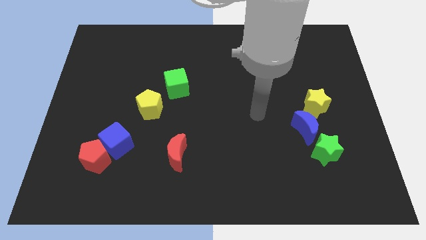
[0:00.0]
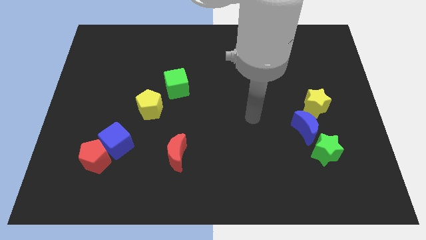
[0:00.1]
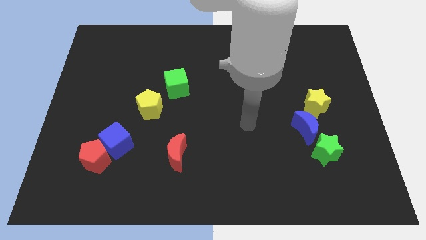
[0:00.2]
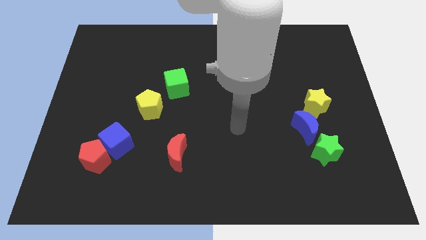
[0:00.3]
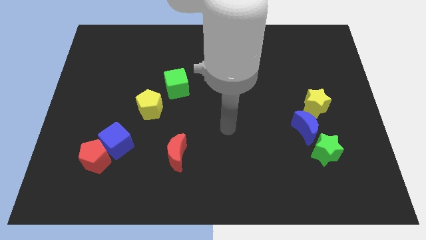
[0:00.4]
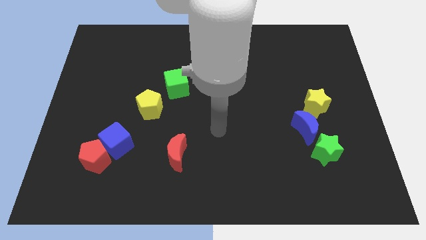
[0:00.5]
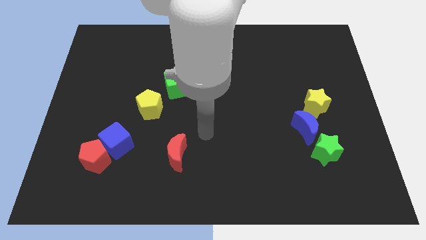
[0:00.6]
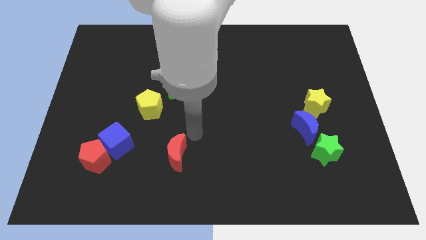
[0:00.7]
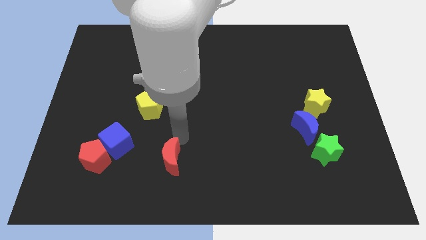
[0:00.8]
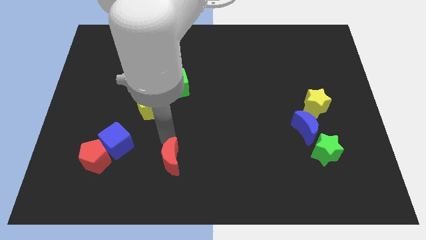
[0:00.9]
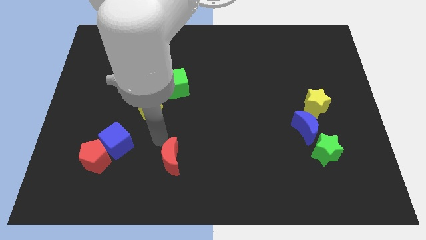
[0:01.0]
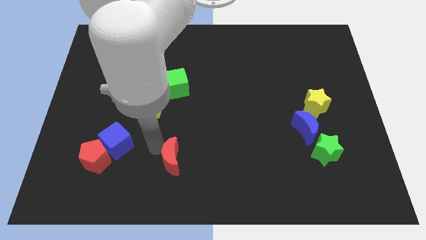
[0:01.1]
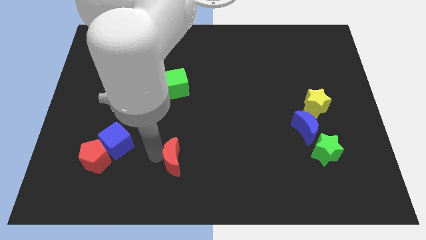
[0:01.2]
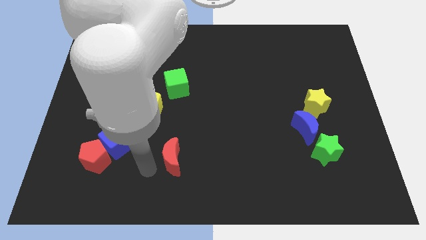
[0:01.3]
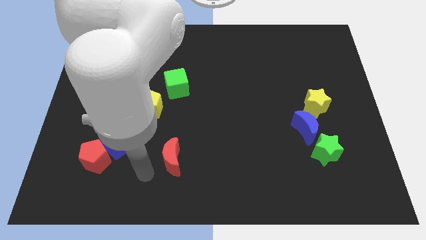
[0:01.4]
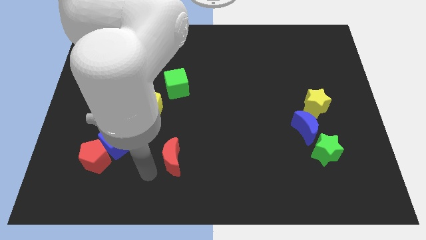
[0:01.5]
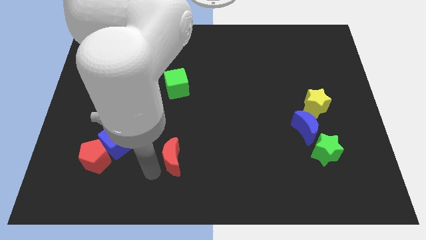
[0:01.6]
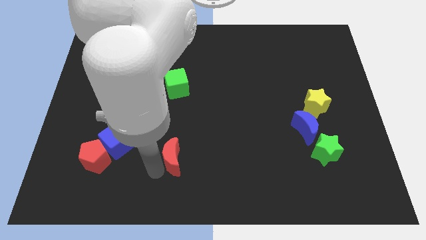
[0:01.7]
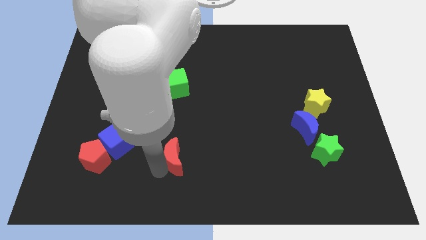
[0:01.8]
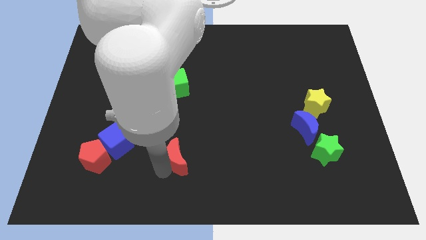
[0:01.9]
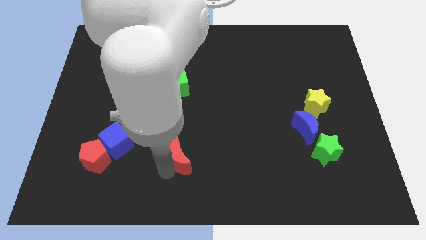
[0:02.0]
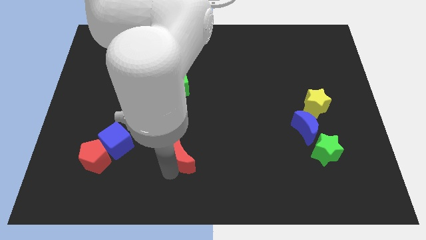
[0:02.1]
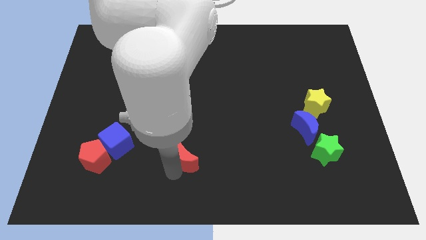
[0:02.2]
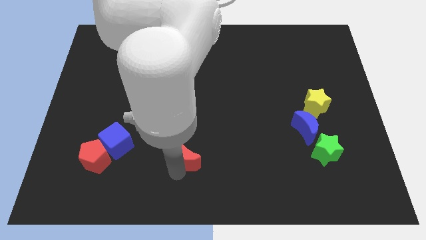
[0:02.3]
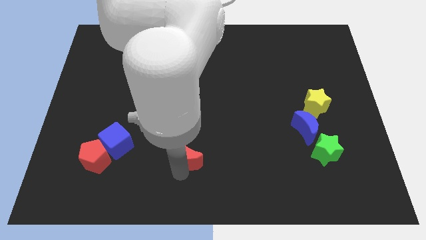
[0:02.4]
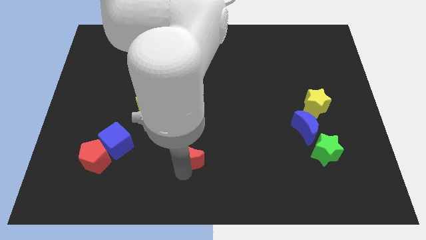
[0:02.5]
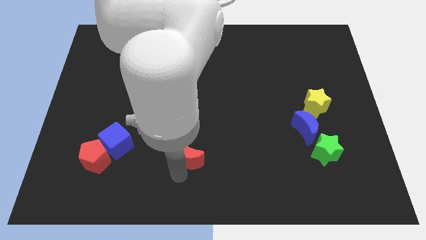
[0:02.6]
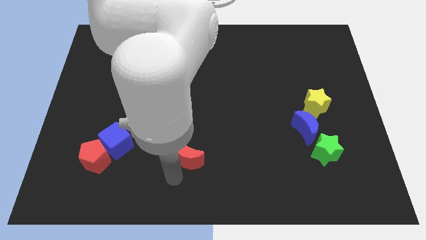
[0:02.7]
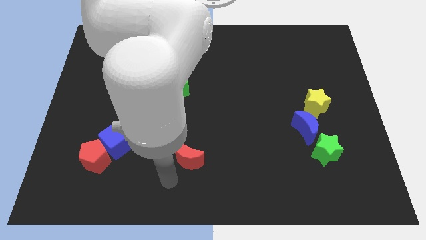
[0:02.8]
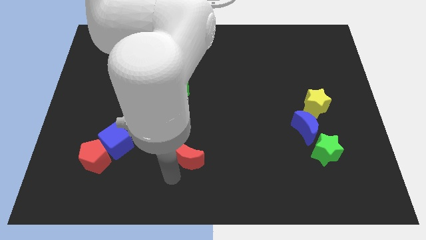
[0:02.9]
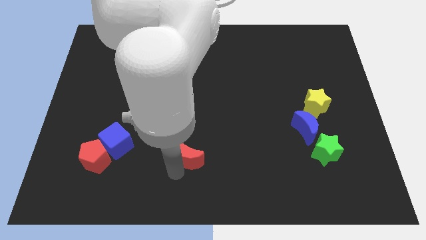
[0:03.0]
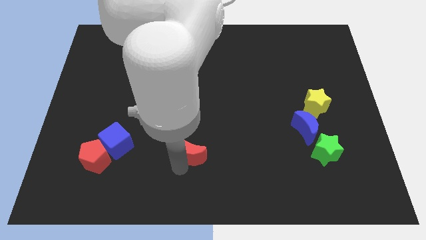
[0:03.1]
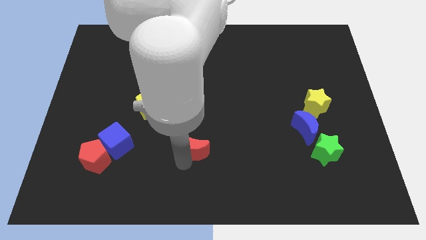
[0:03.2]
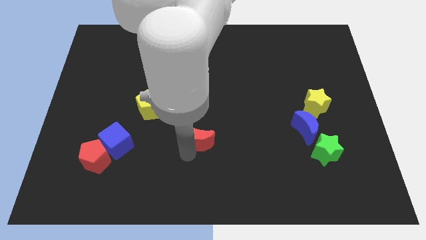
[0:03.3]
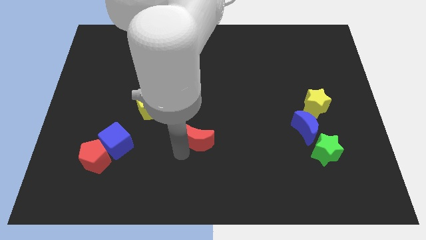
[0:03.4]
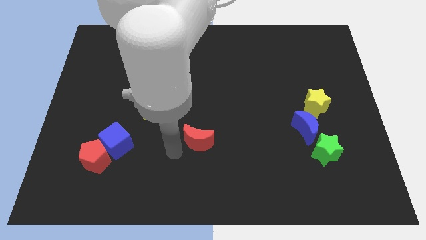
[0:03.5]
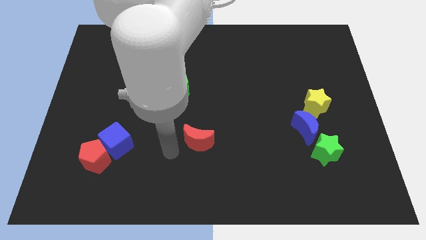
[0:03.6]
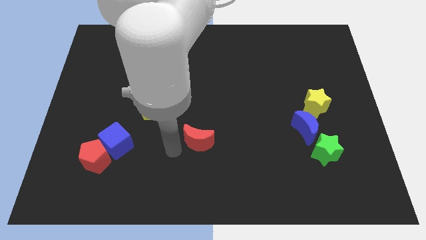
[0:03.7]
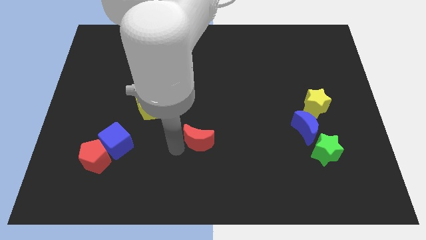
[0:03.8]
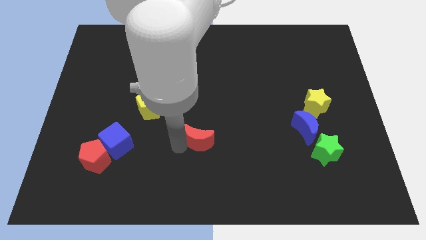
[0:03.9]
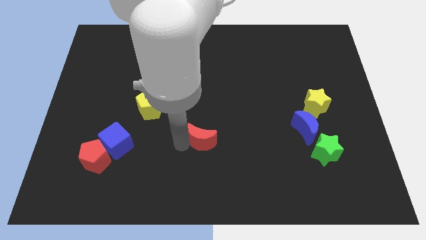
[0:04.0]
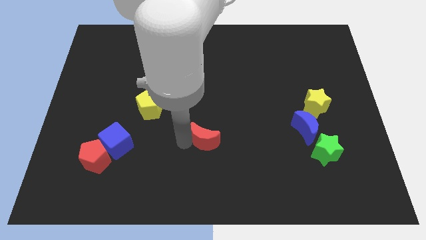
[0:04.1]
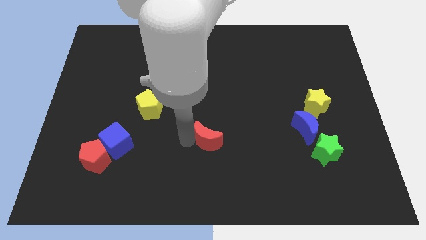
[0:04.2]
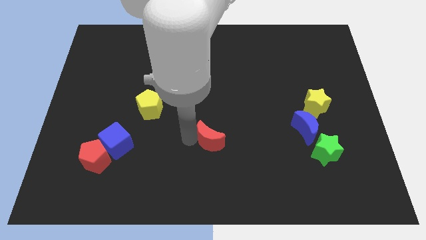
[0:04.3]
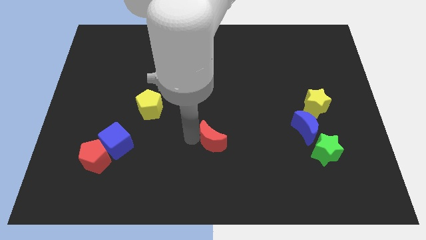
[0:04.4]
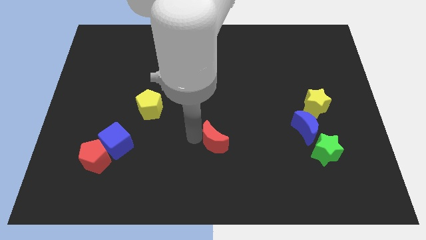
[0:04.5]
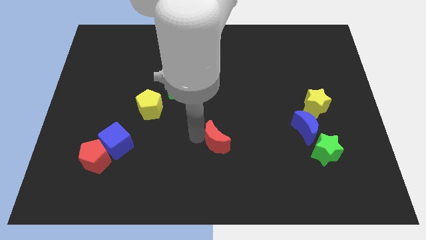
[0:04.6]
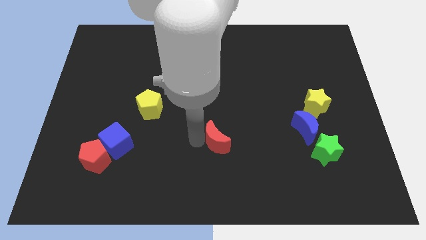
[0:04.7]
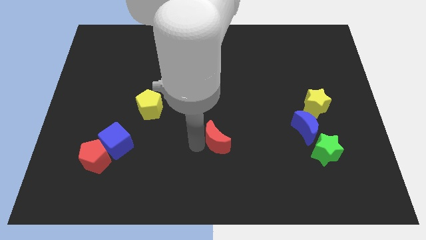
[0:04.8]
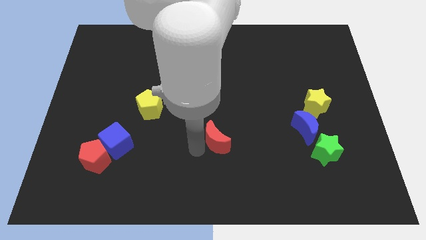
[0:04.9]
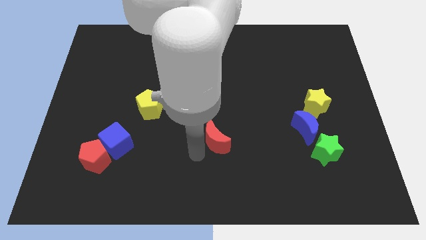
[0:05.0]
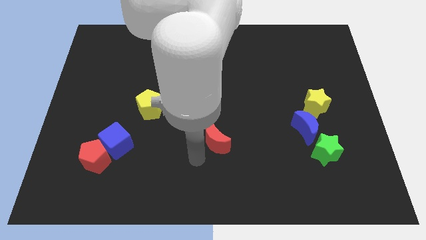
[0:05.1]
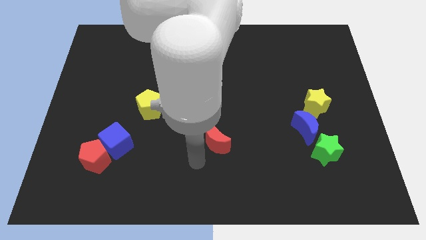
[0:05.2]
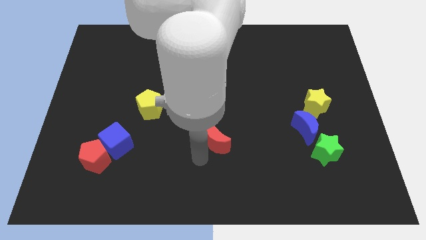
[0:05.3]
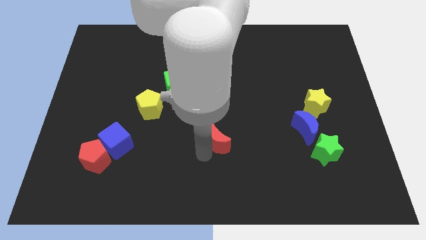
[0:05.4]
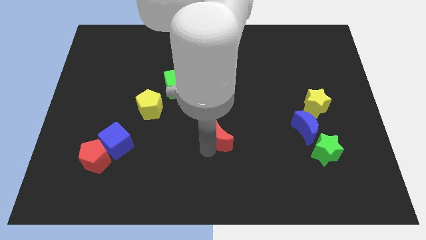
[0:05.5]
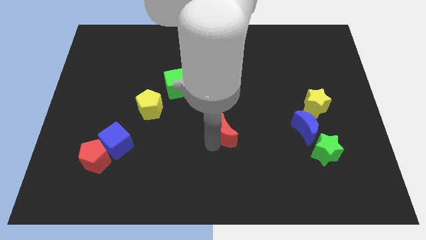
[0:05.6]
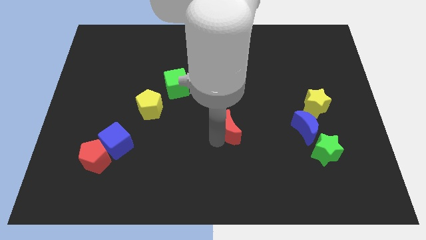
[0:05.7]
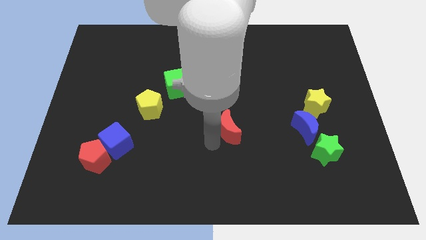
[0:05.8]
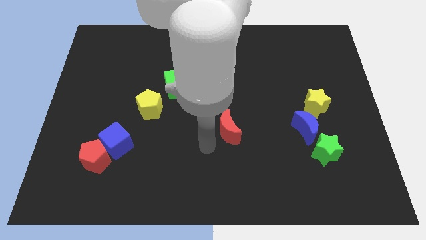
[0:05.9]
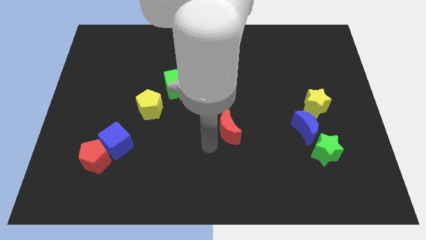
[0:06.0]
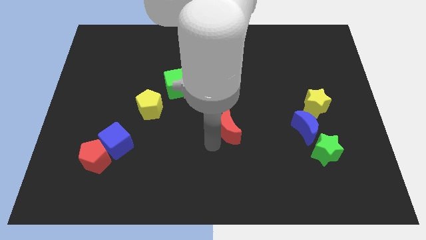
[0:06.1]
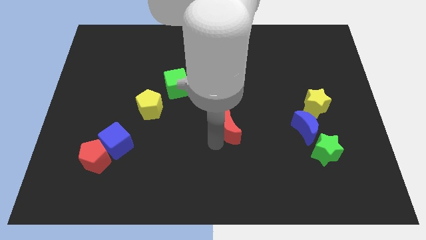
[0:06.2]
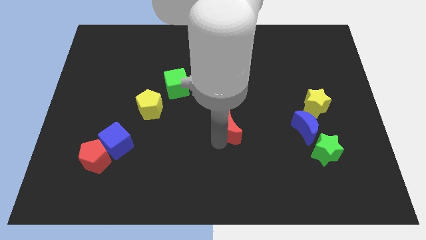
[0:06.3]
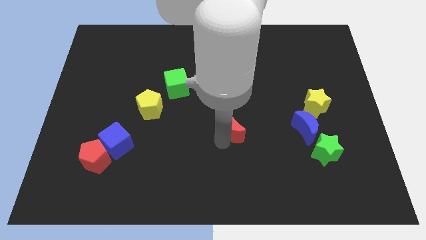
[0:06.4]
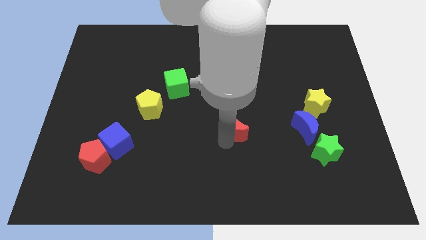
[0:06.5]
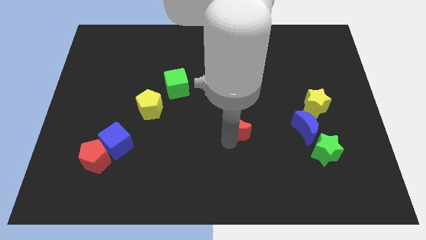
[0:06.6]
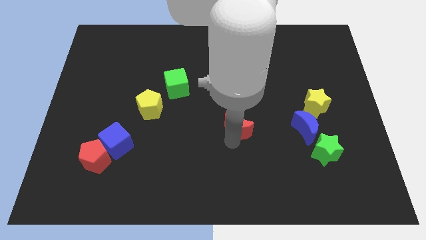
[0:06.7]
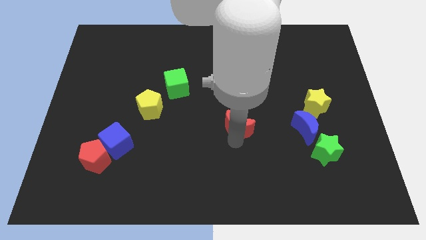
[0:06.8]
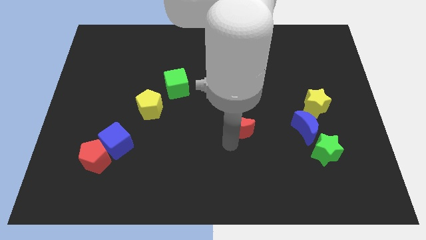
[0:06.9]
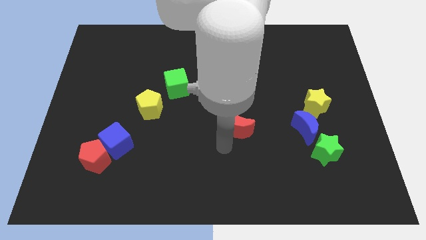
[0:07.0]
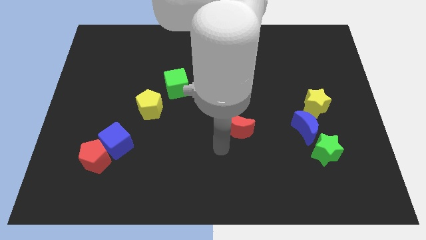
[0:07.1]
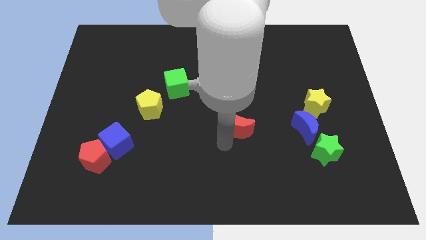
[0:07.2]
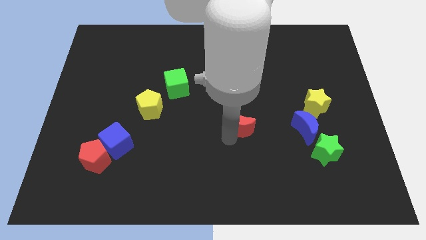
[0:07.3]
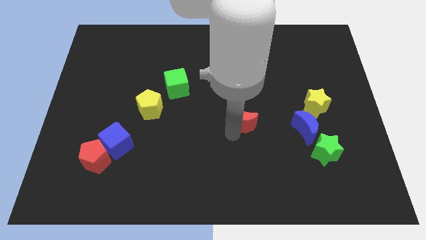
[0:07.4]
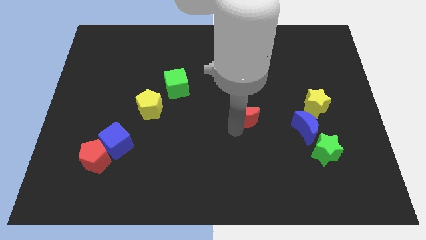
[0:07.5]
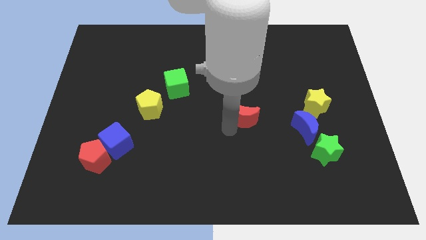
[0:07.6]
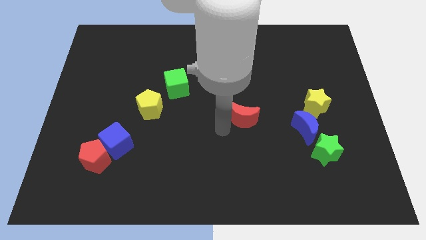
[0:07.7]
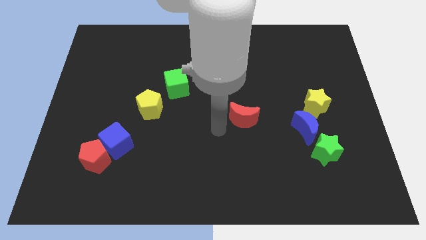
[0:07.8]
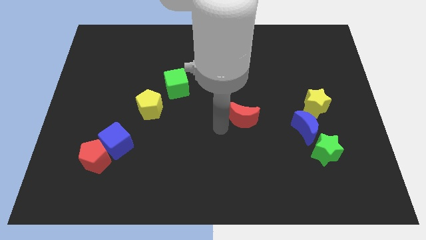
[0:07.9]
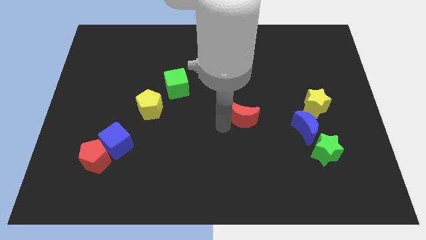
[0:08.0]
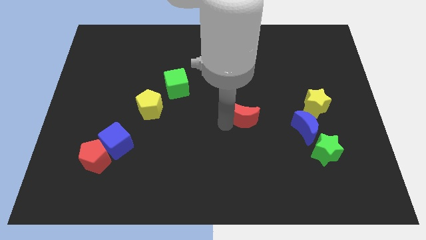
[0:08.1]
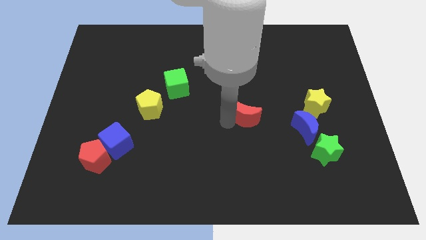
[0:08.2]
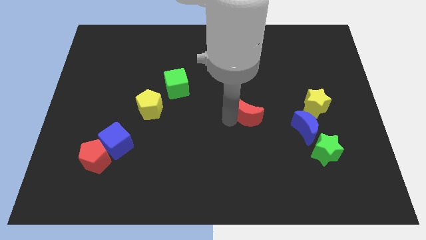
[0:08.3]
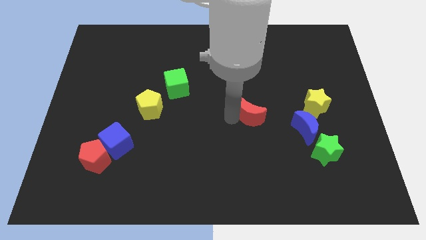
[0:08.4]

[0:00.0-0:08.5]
move the red moon left of the yellow star
